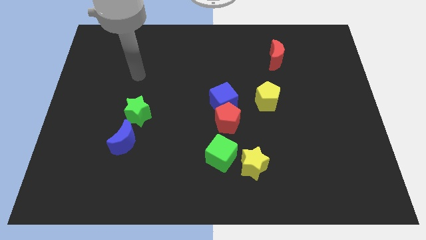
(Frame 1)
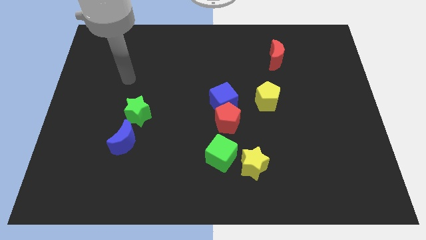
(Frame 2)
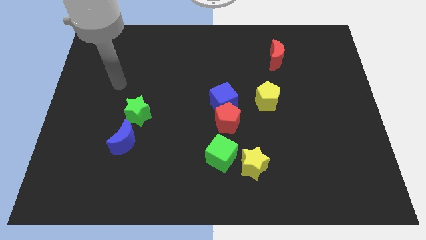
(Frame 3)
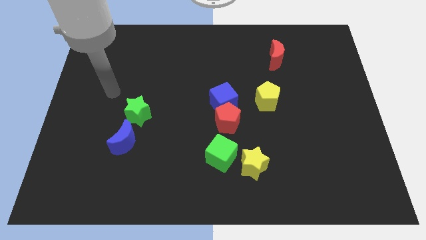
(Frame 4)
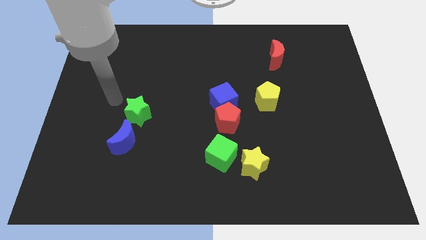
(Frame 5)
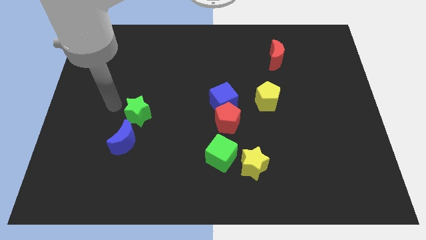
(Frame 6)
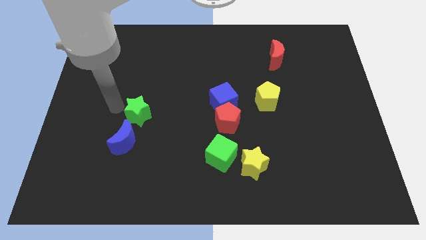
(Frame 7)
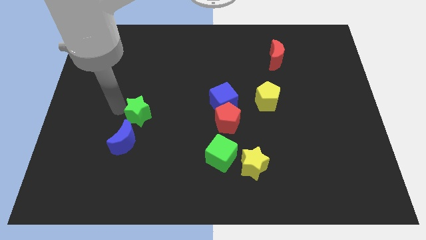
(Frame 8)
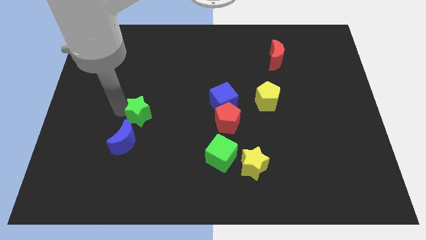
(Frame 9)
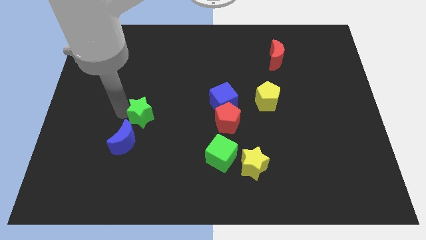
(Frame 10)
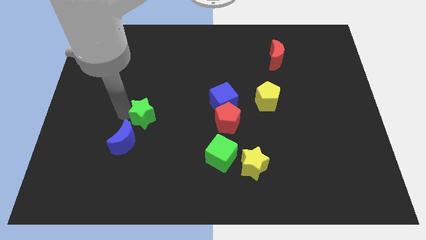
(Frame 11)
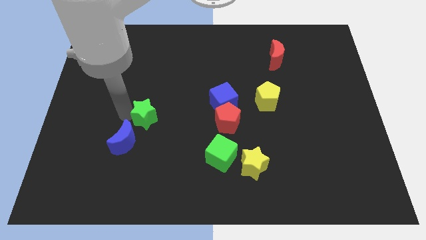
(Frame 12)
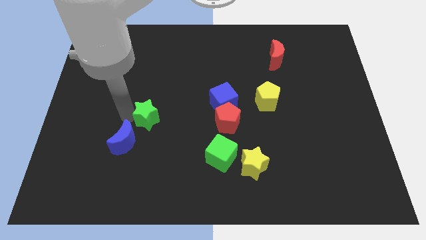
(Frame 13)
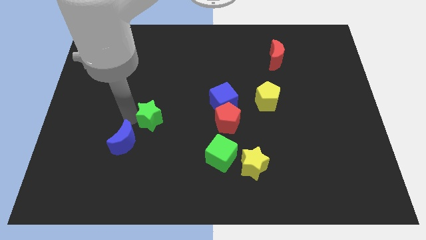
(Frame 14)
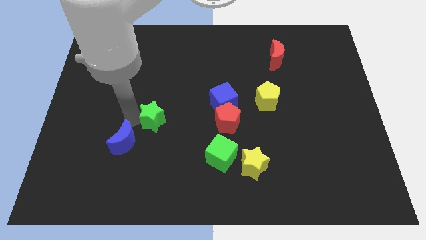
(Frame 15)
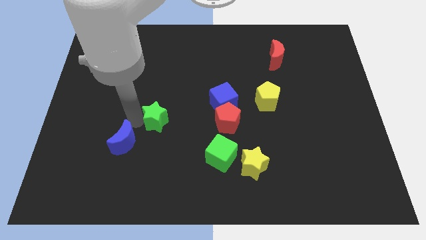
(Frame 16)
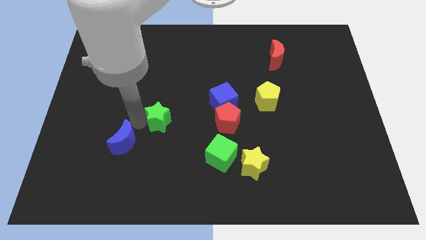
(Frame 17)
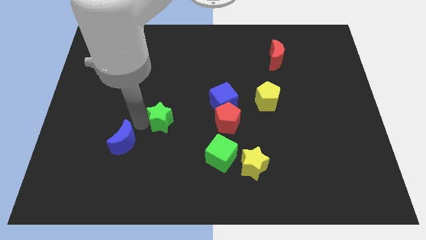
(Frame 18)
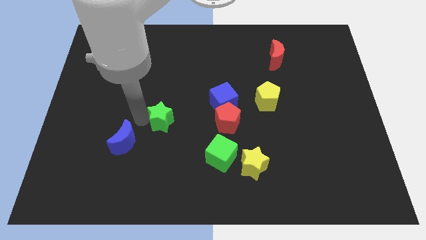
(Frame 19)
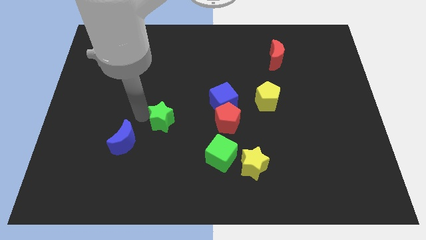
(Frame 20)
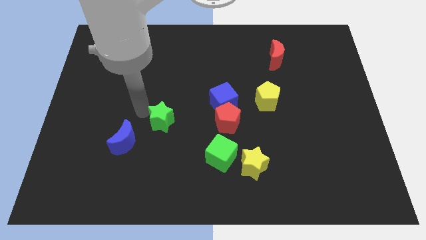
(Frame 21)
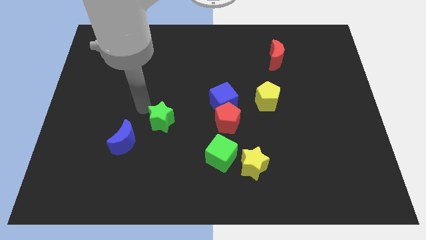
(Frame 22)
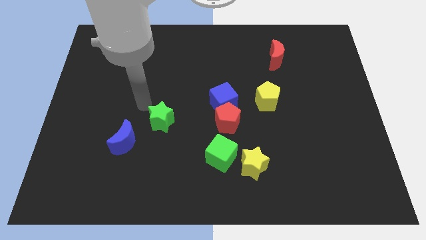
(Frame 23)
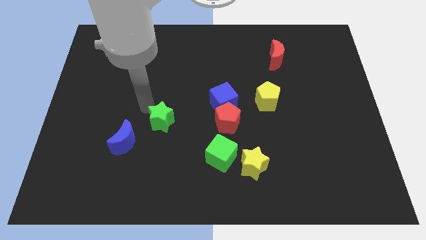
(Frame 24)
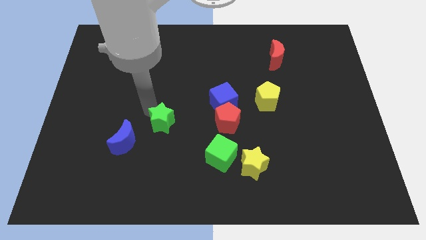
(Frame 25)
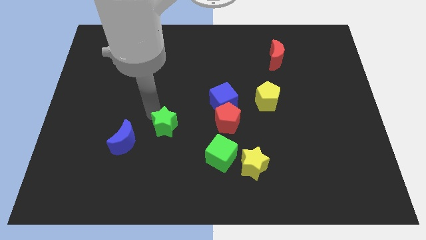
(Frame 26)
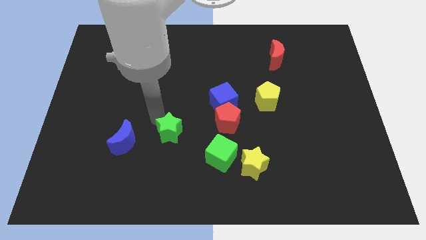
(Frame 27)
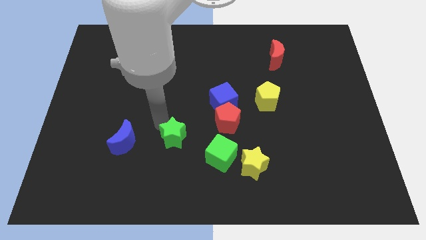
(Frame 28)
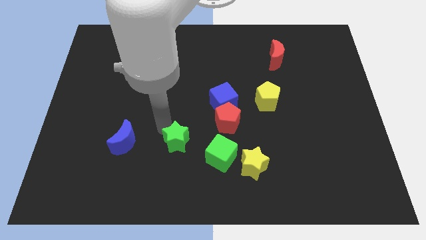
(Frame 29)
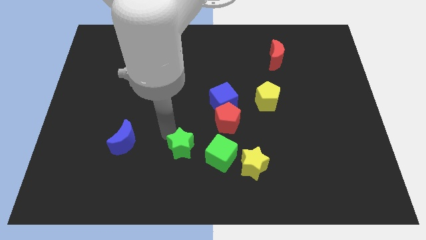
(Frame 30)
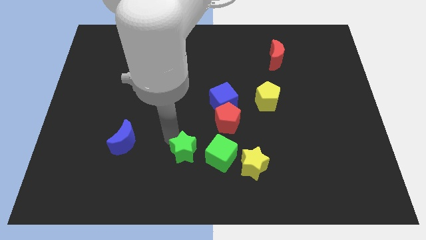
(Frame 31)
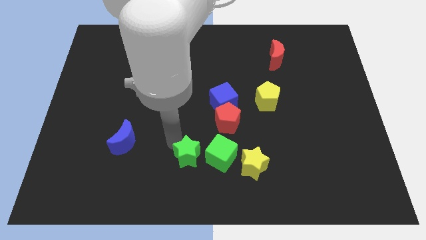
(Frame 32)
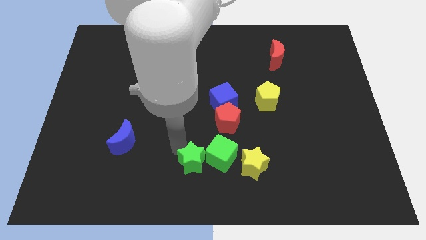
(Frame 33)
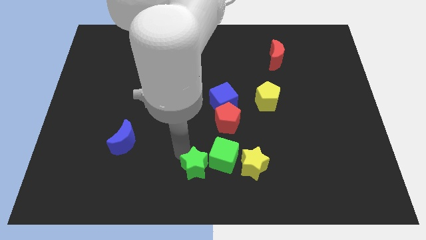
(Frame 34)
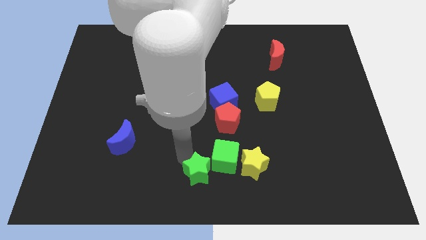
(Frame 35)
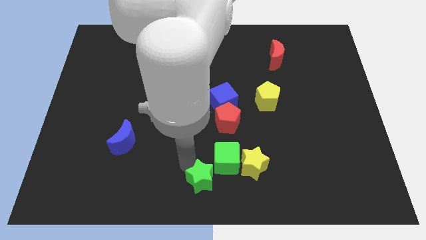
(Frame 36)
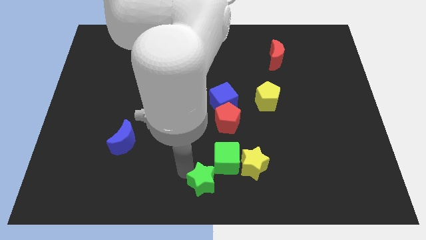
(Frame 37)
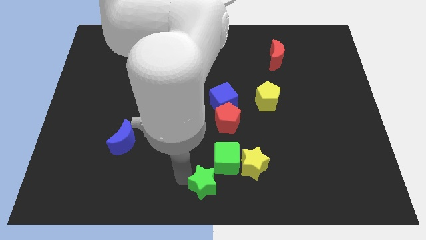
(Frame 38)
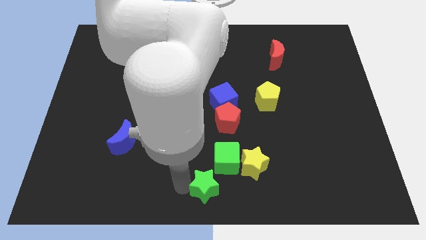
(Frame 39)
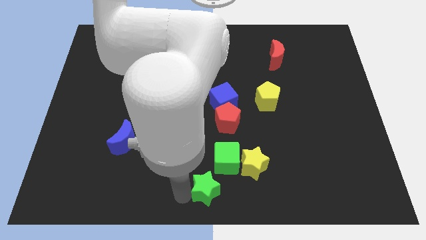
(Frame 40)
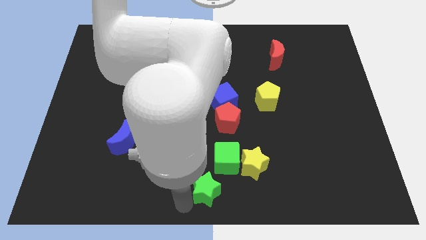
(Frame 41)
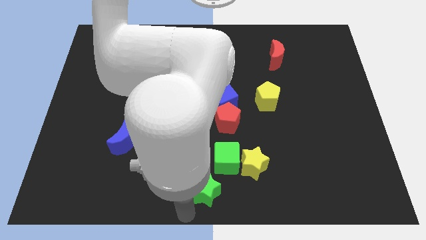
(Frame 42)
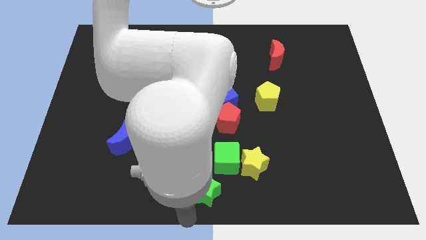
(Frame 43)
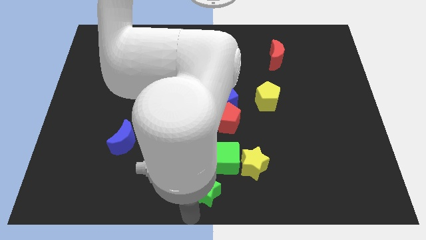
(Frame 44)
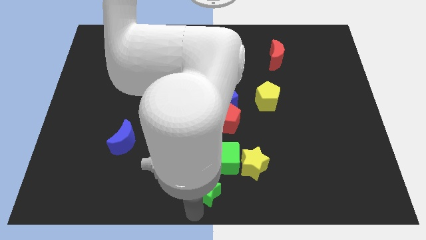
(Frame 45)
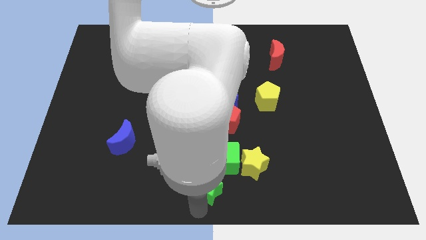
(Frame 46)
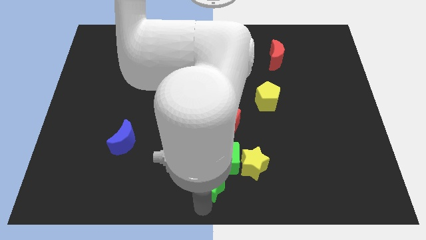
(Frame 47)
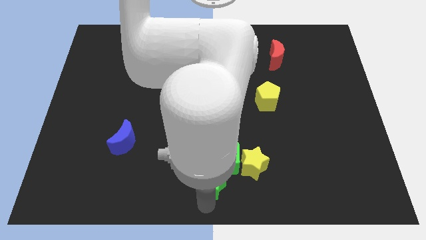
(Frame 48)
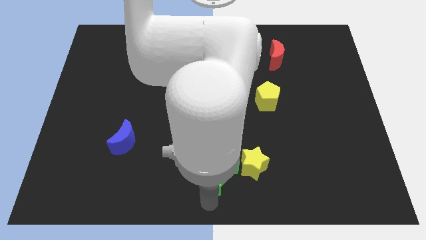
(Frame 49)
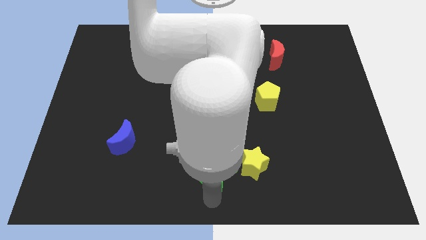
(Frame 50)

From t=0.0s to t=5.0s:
slide the green star to the bottom side of the red pentagon

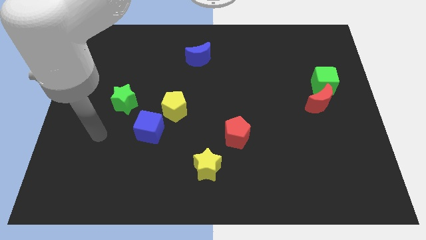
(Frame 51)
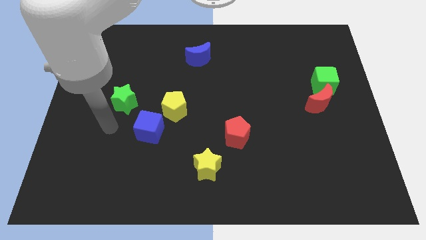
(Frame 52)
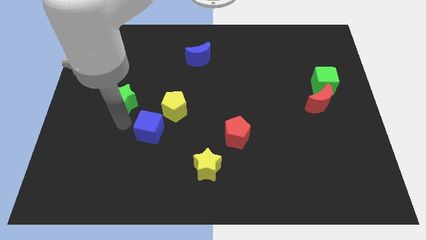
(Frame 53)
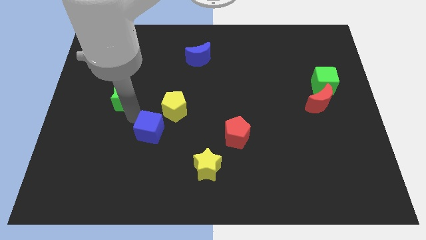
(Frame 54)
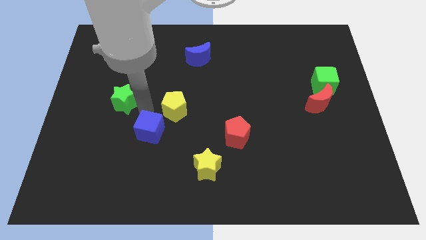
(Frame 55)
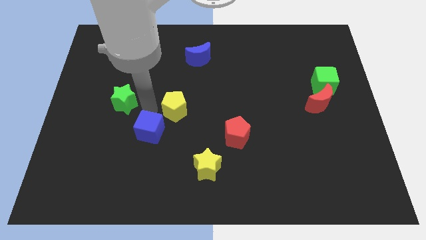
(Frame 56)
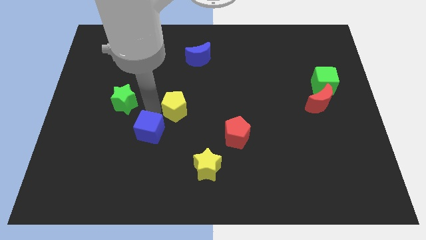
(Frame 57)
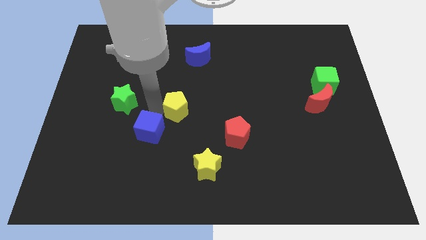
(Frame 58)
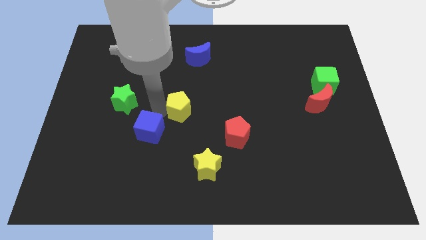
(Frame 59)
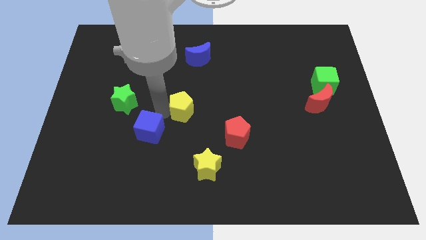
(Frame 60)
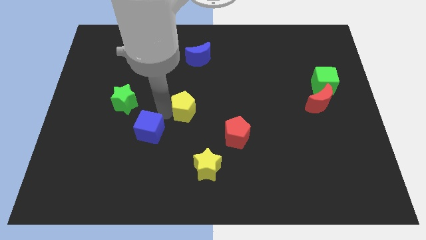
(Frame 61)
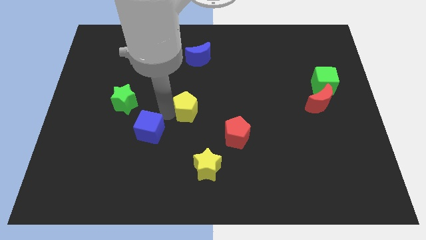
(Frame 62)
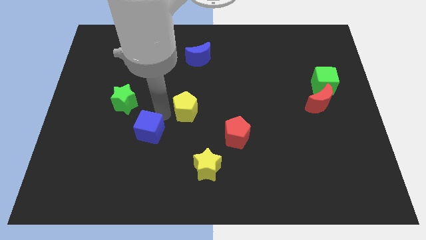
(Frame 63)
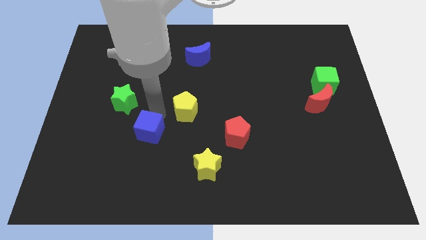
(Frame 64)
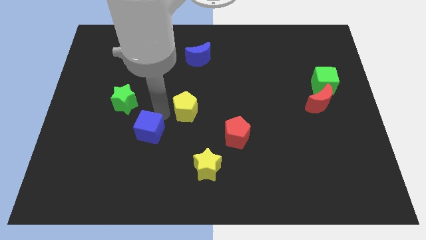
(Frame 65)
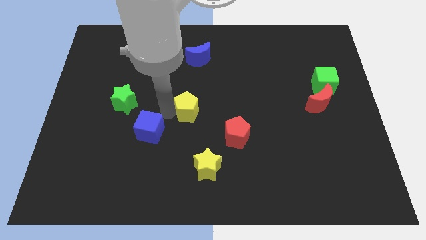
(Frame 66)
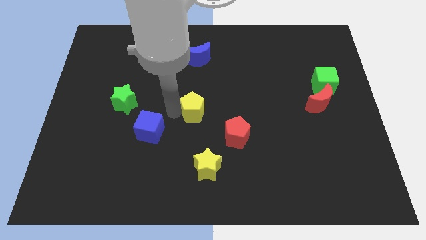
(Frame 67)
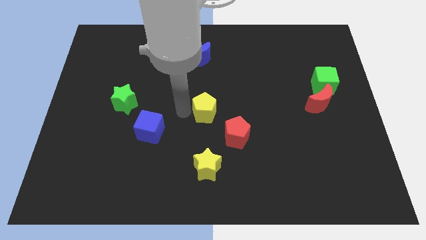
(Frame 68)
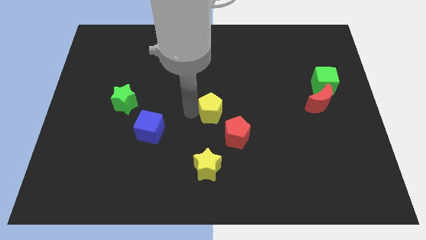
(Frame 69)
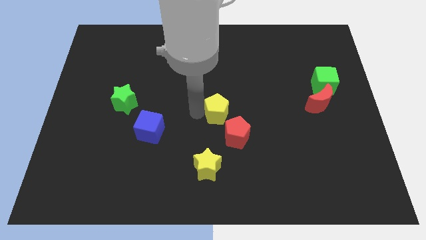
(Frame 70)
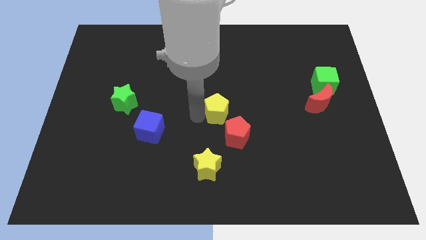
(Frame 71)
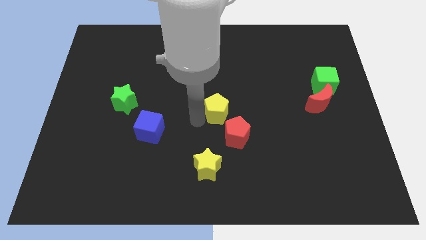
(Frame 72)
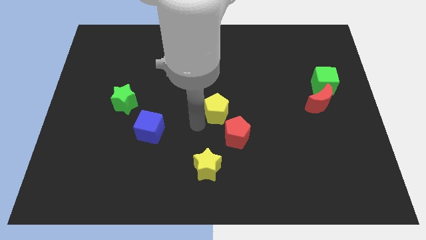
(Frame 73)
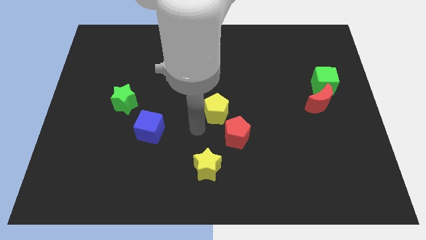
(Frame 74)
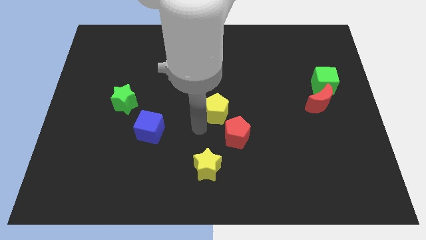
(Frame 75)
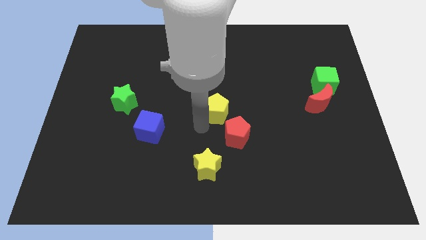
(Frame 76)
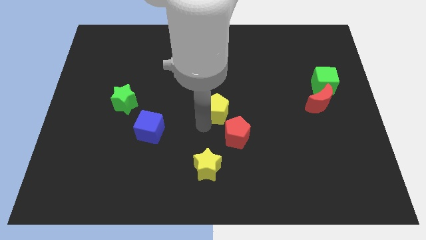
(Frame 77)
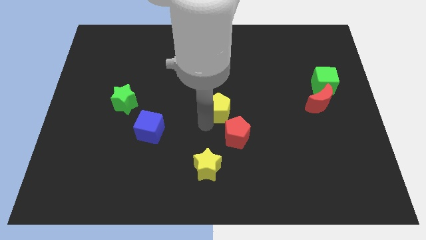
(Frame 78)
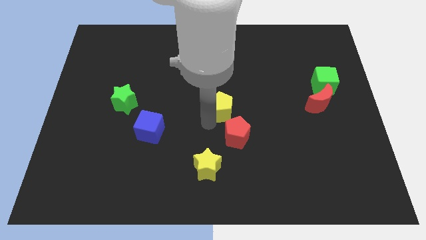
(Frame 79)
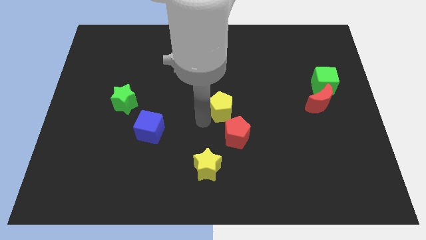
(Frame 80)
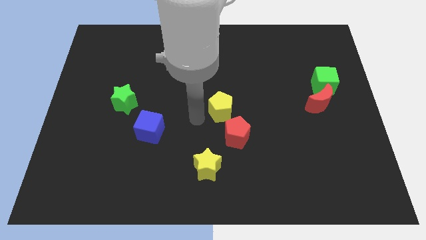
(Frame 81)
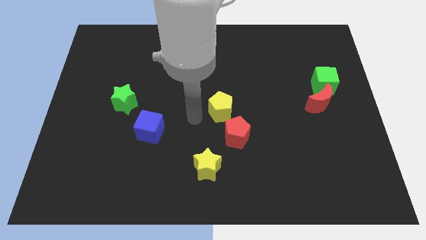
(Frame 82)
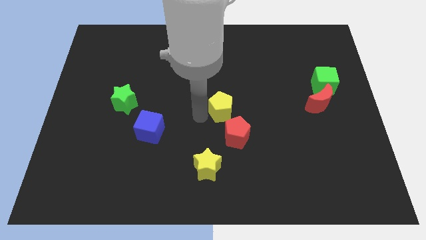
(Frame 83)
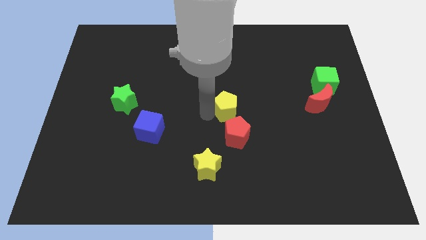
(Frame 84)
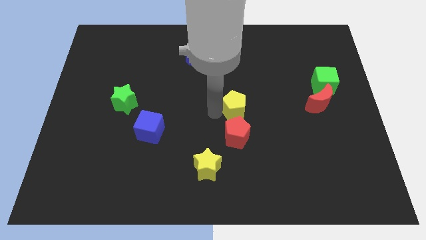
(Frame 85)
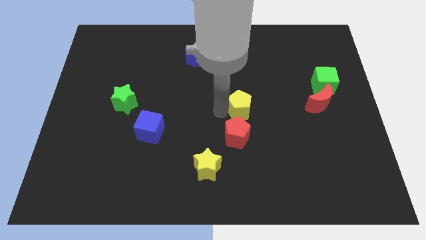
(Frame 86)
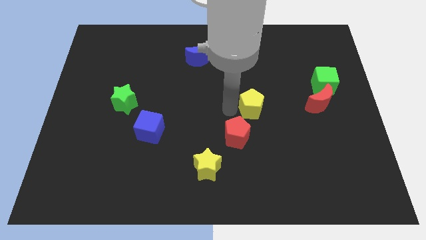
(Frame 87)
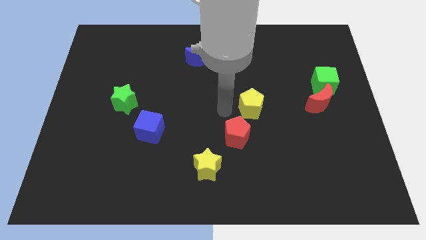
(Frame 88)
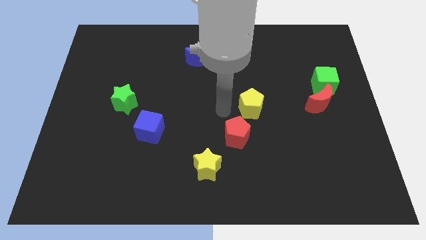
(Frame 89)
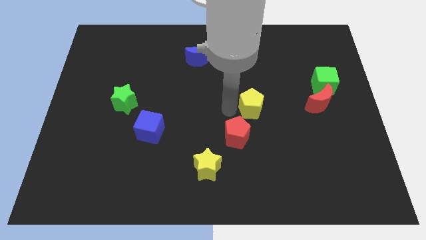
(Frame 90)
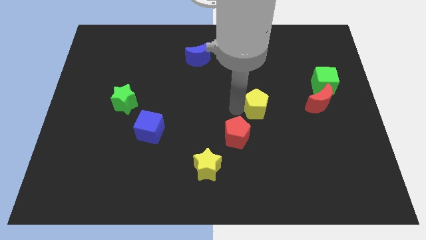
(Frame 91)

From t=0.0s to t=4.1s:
move the yellow pentagon just left of the red moon
